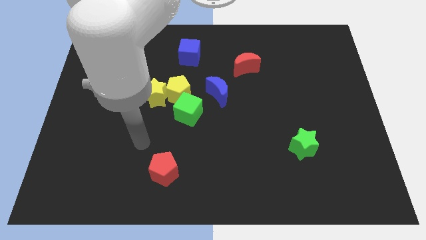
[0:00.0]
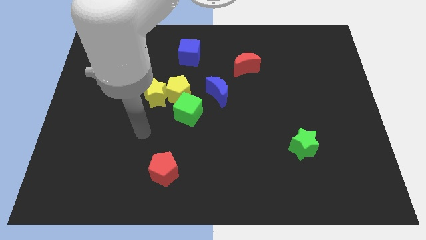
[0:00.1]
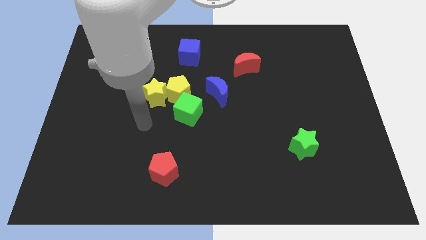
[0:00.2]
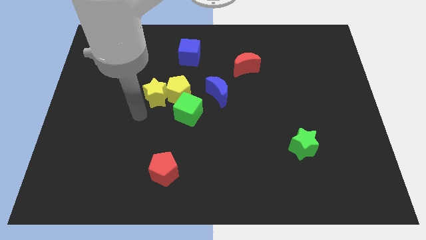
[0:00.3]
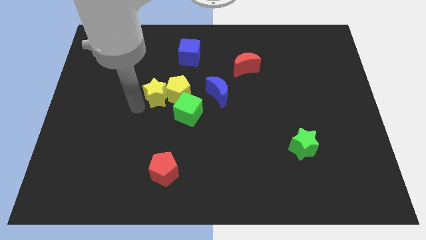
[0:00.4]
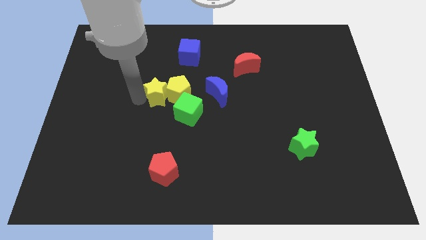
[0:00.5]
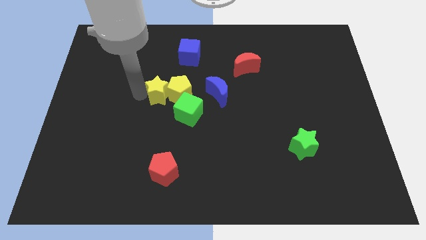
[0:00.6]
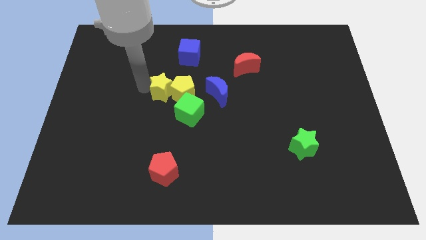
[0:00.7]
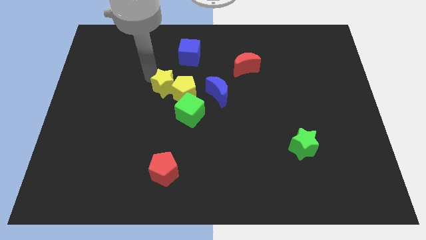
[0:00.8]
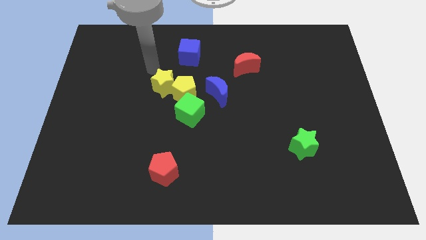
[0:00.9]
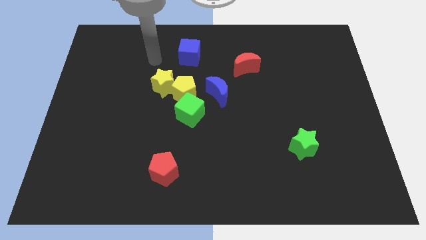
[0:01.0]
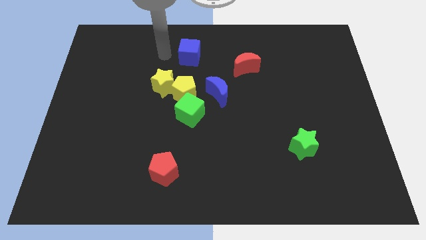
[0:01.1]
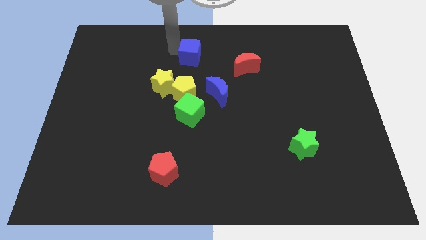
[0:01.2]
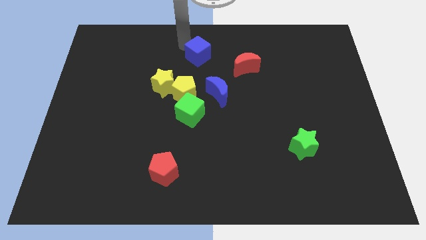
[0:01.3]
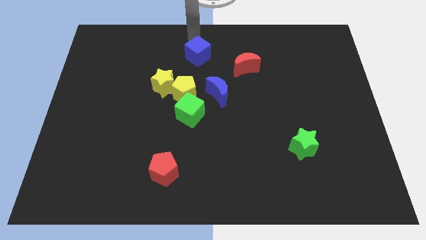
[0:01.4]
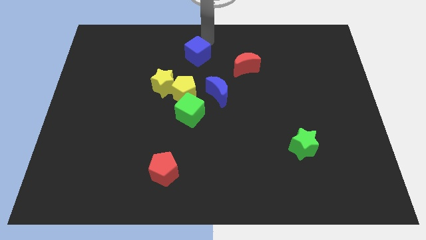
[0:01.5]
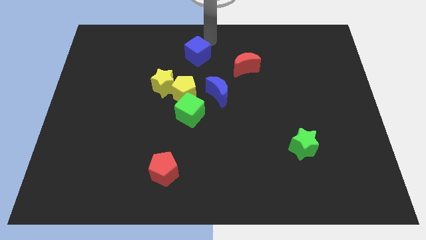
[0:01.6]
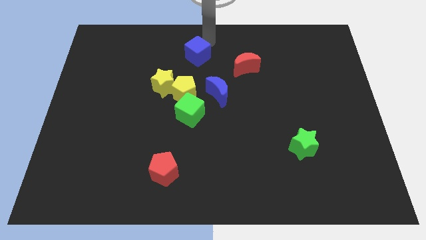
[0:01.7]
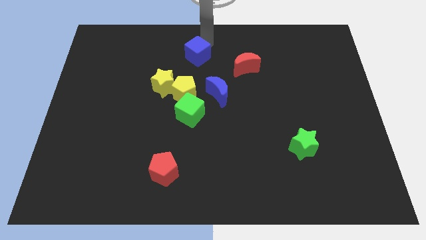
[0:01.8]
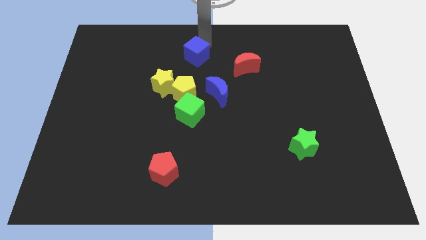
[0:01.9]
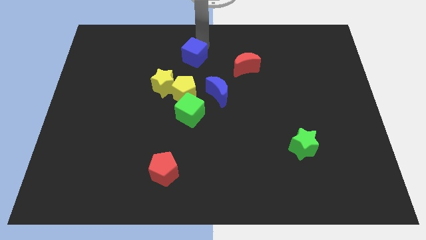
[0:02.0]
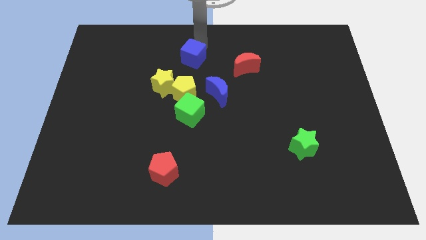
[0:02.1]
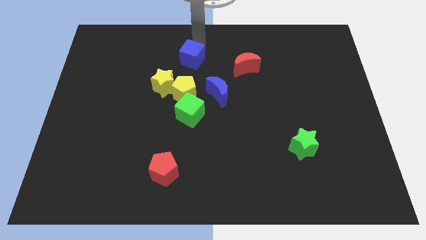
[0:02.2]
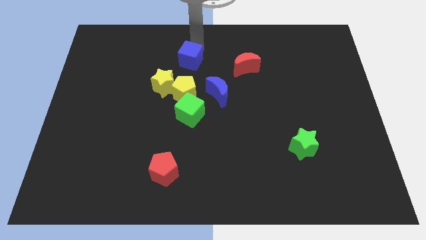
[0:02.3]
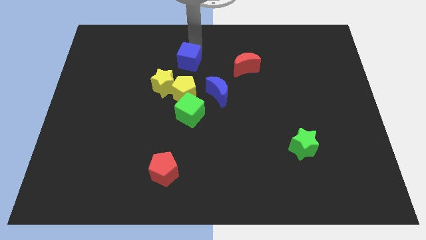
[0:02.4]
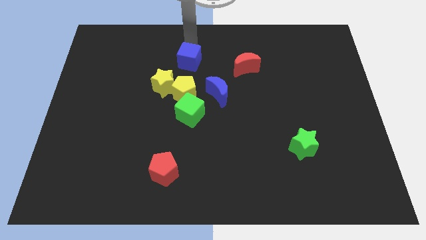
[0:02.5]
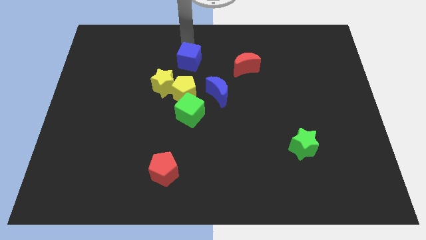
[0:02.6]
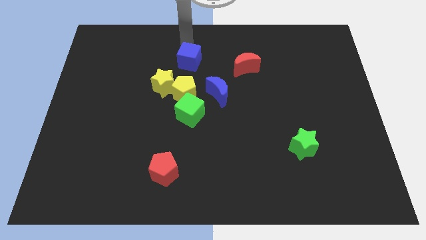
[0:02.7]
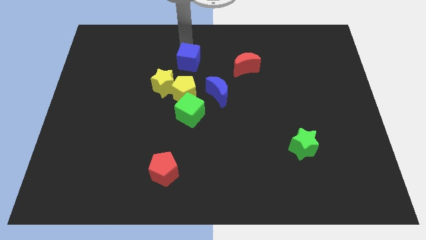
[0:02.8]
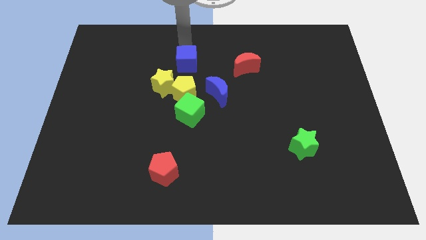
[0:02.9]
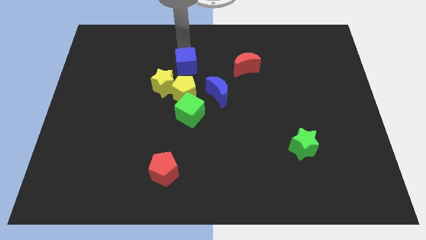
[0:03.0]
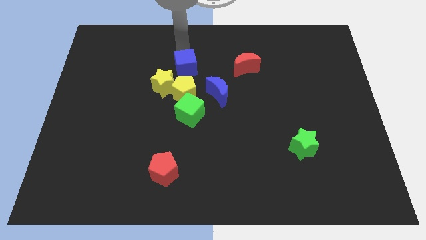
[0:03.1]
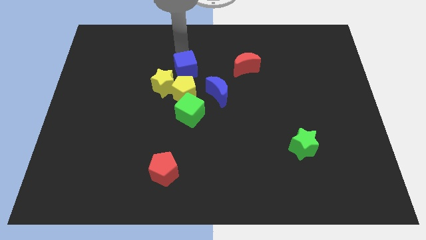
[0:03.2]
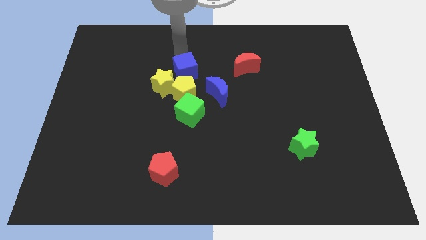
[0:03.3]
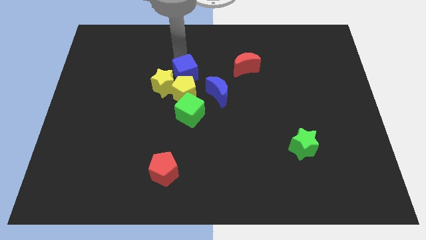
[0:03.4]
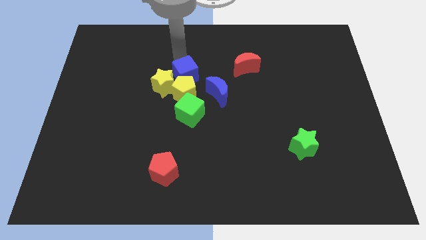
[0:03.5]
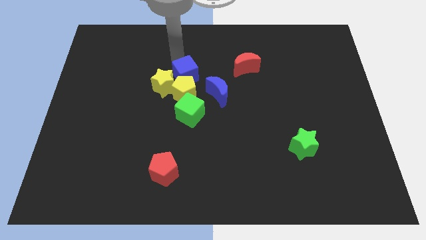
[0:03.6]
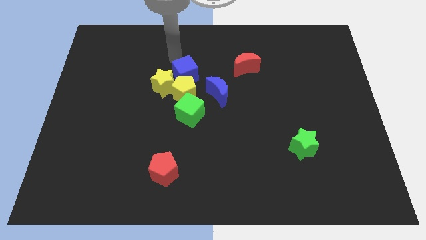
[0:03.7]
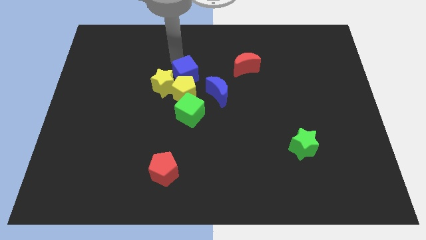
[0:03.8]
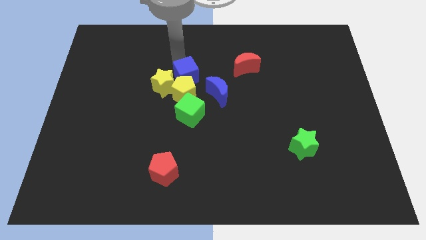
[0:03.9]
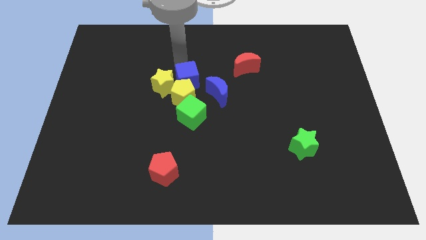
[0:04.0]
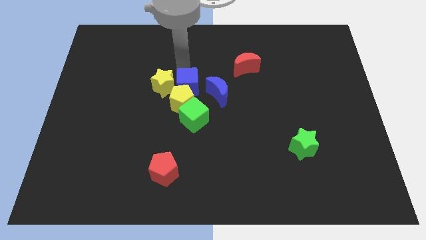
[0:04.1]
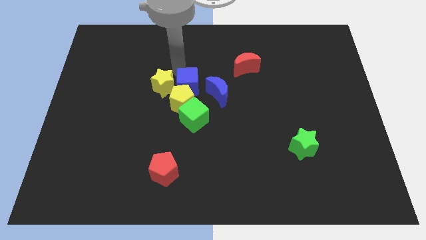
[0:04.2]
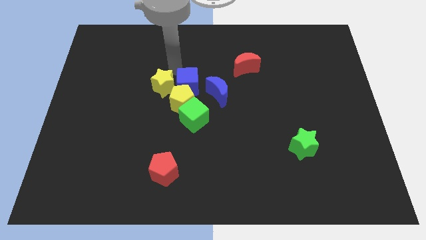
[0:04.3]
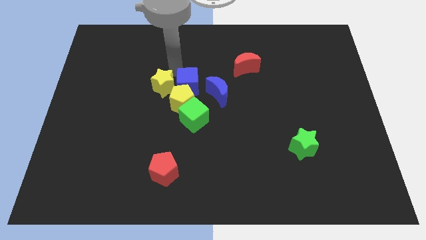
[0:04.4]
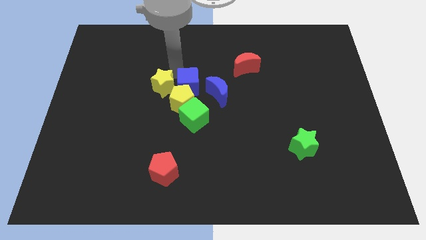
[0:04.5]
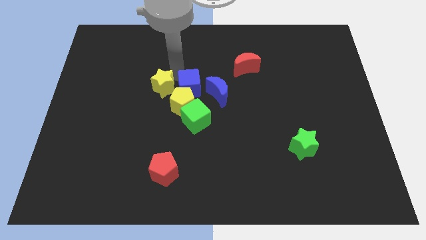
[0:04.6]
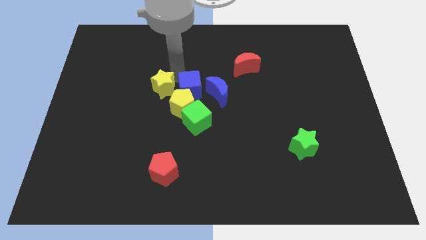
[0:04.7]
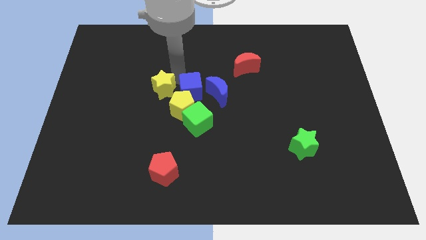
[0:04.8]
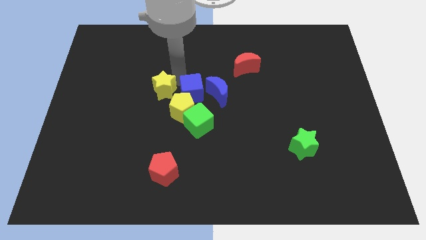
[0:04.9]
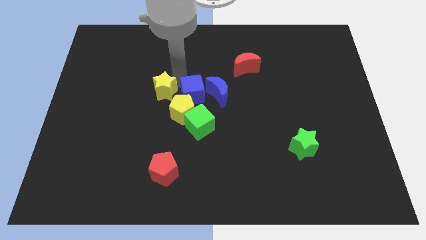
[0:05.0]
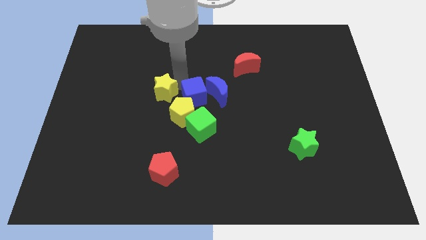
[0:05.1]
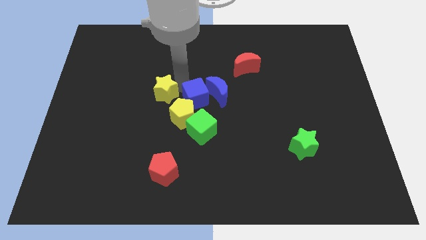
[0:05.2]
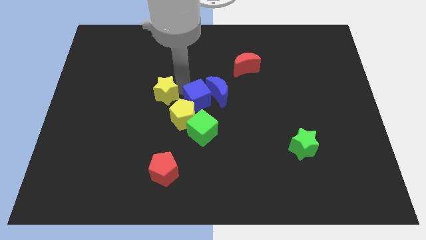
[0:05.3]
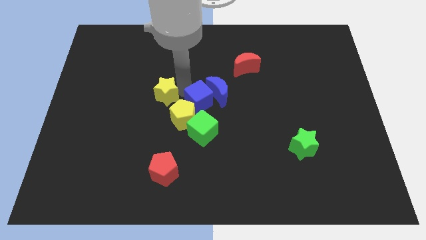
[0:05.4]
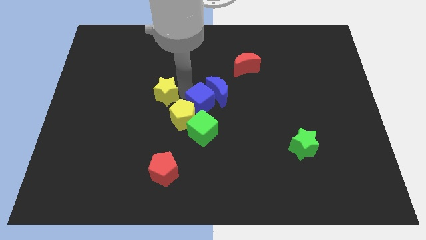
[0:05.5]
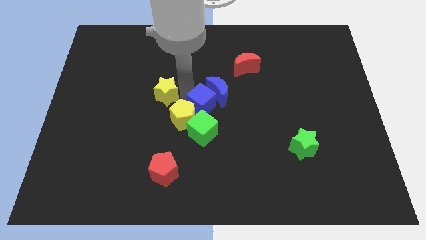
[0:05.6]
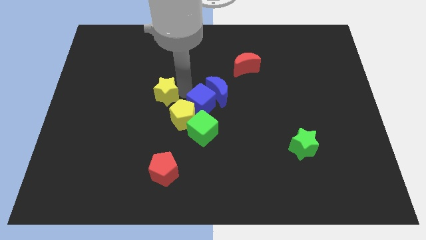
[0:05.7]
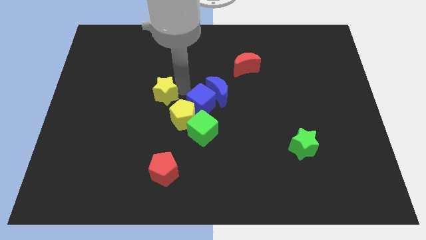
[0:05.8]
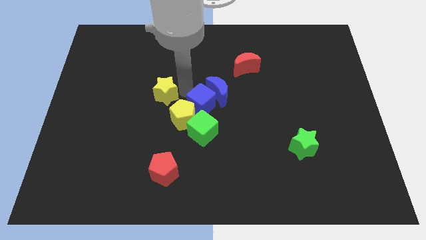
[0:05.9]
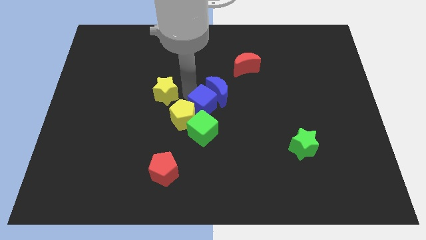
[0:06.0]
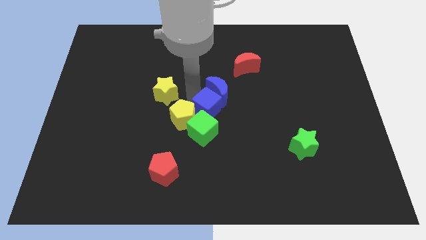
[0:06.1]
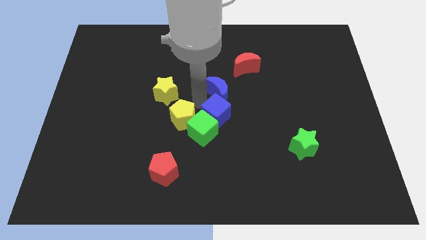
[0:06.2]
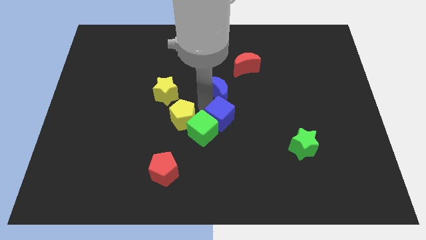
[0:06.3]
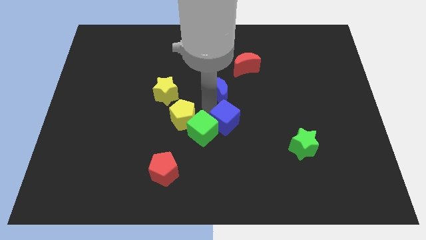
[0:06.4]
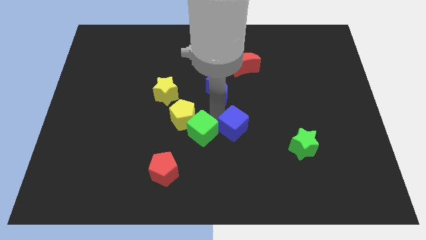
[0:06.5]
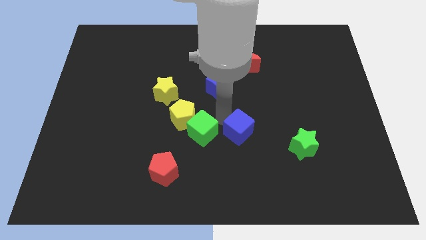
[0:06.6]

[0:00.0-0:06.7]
slide the blue cube to the left of the green star
